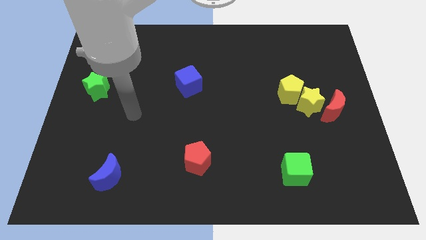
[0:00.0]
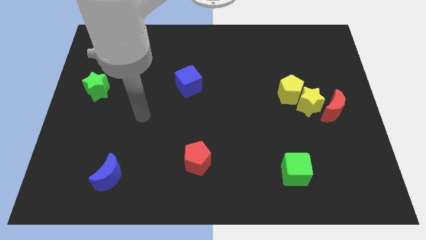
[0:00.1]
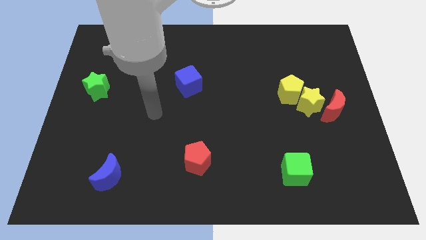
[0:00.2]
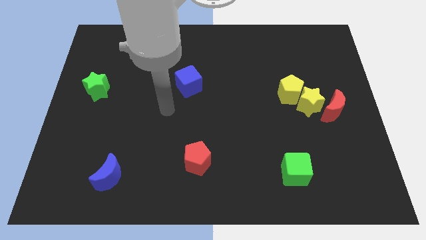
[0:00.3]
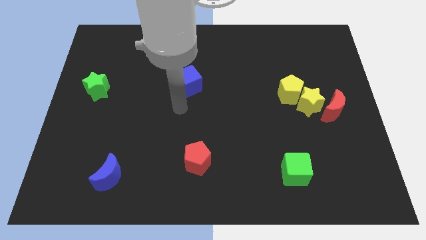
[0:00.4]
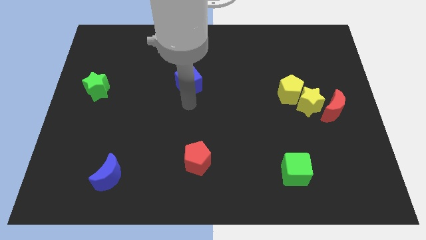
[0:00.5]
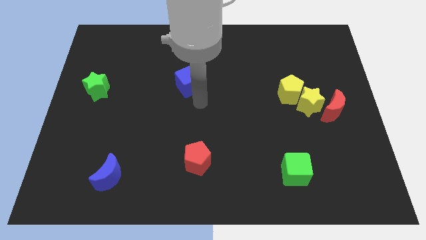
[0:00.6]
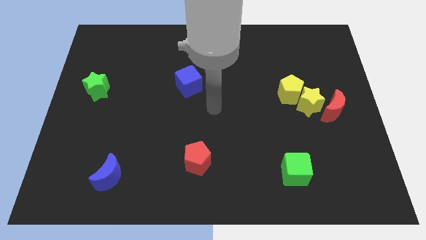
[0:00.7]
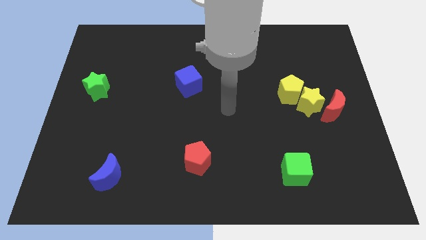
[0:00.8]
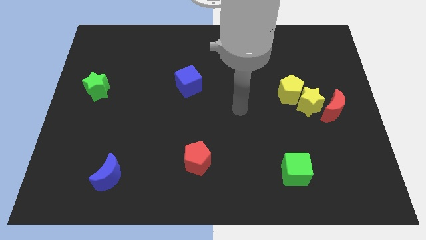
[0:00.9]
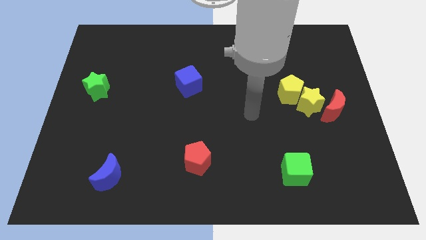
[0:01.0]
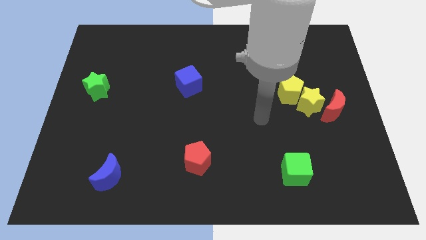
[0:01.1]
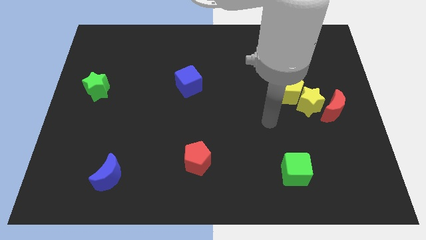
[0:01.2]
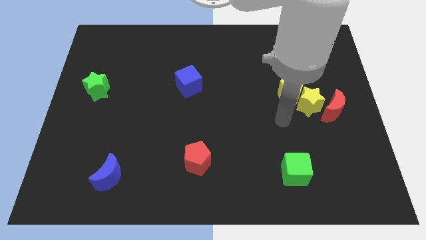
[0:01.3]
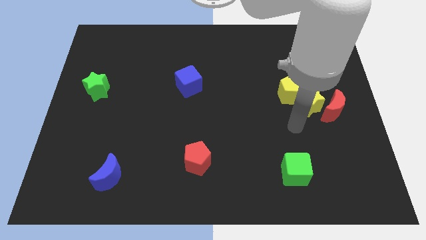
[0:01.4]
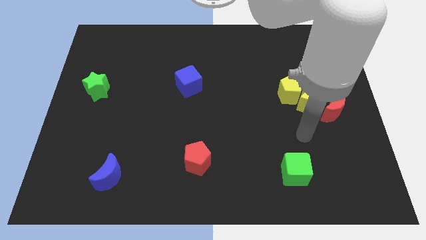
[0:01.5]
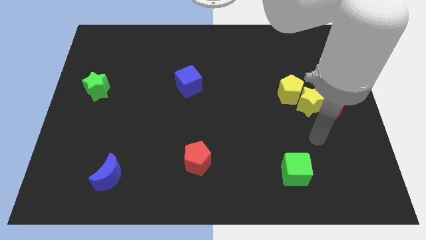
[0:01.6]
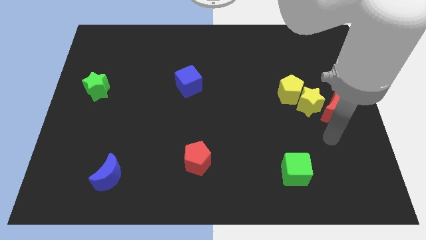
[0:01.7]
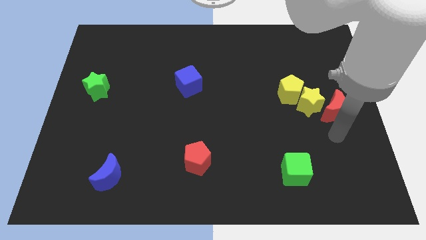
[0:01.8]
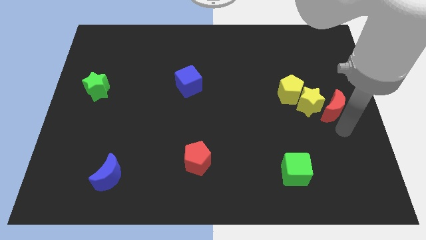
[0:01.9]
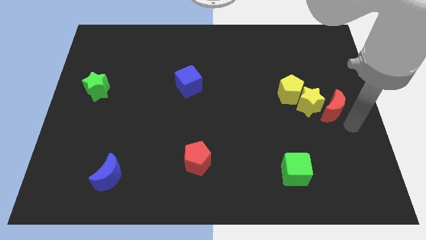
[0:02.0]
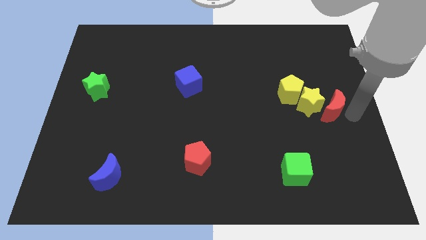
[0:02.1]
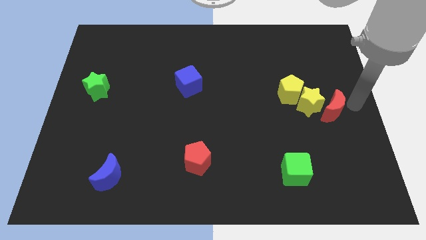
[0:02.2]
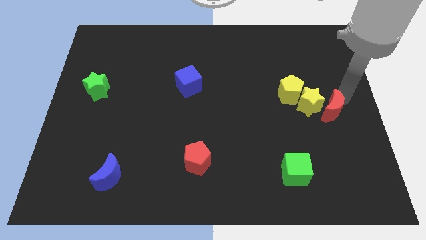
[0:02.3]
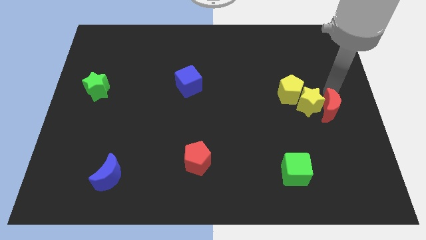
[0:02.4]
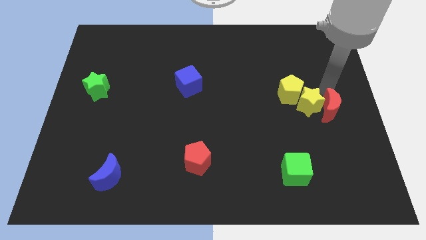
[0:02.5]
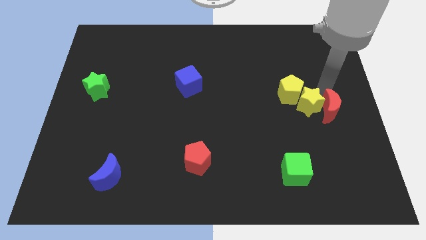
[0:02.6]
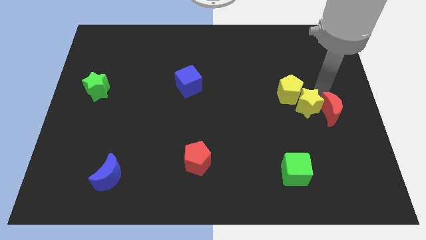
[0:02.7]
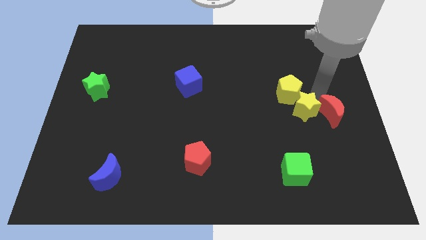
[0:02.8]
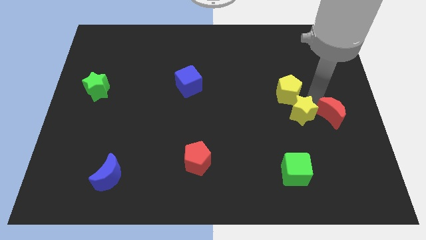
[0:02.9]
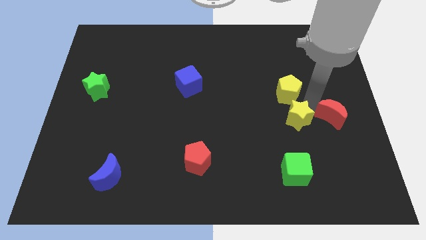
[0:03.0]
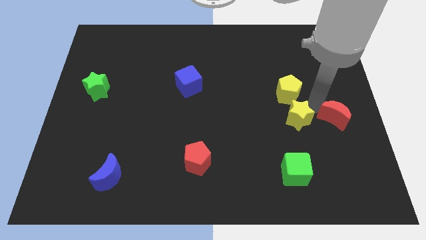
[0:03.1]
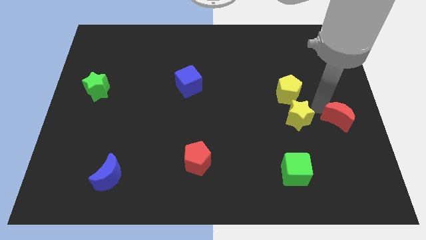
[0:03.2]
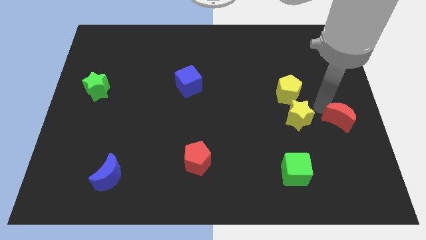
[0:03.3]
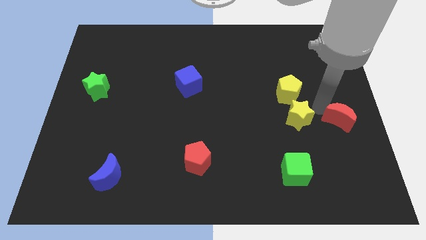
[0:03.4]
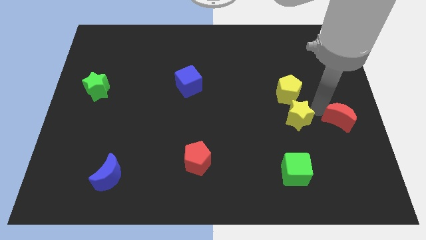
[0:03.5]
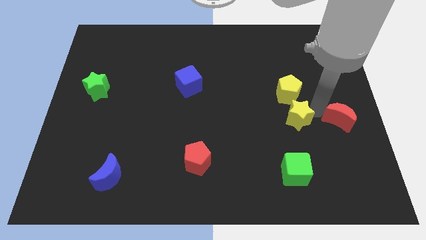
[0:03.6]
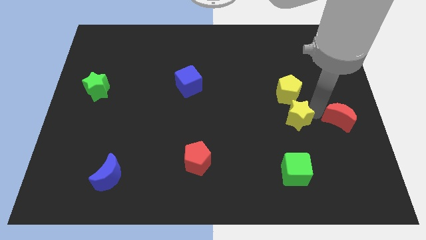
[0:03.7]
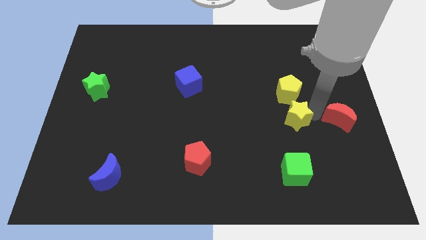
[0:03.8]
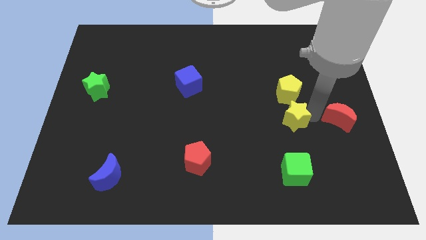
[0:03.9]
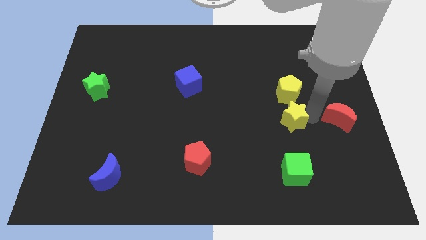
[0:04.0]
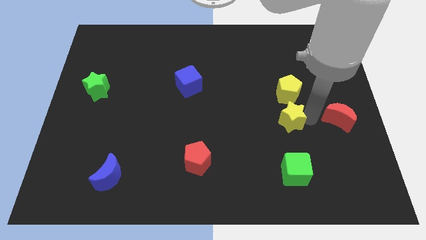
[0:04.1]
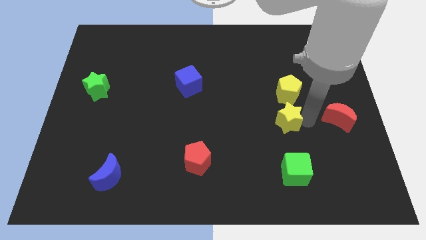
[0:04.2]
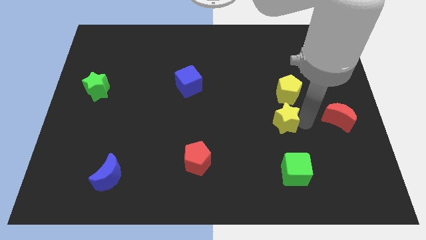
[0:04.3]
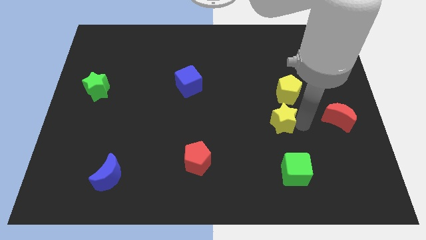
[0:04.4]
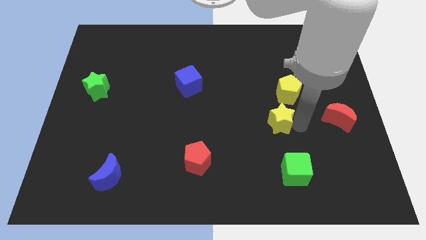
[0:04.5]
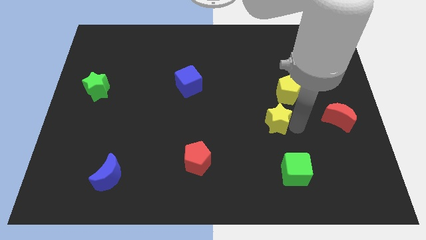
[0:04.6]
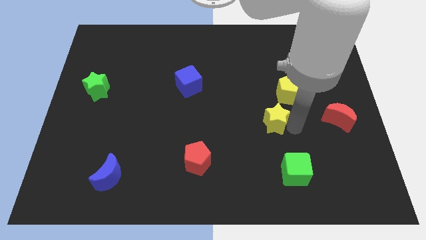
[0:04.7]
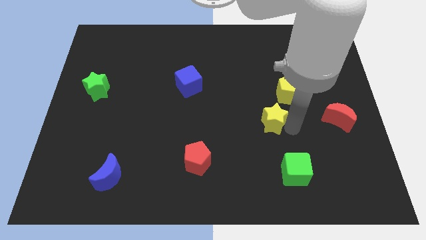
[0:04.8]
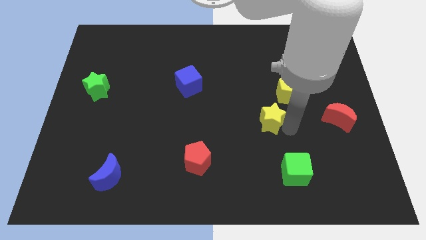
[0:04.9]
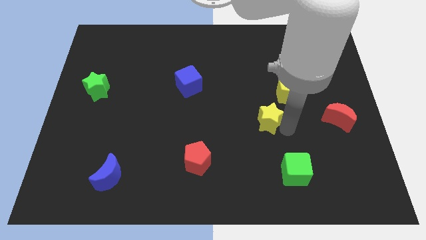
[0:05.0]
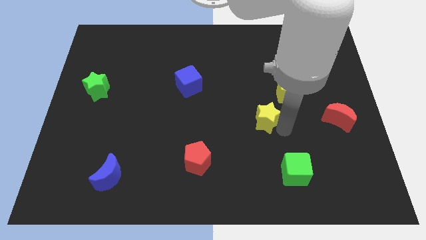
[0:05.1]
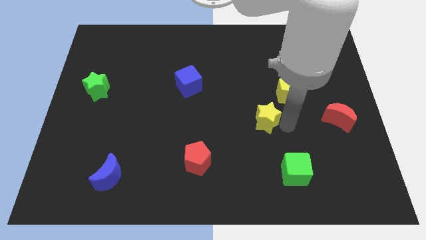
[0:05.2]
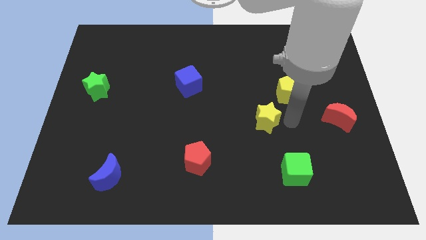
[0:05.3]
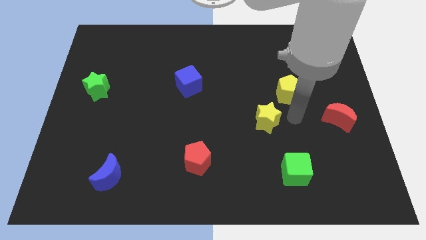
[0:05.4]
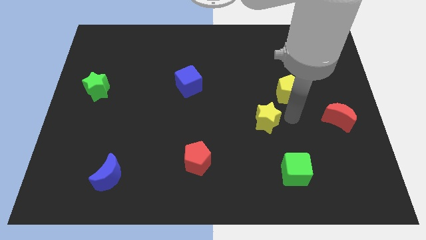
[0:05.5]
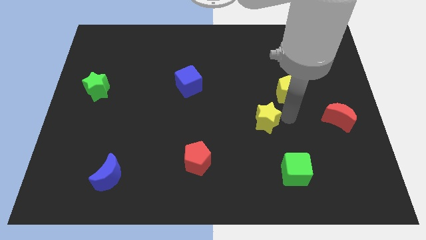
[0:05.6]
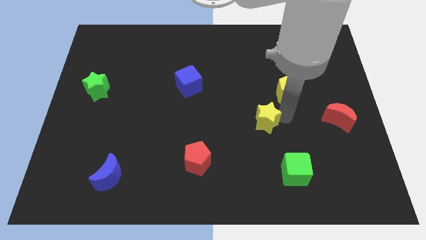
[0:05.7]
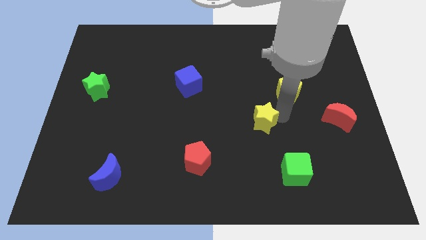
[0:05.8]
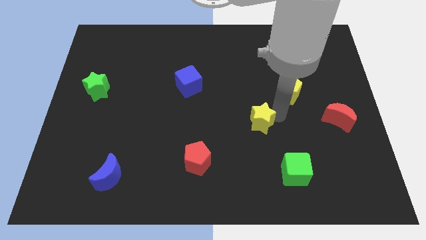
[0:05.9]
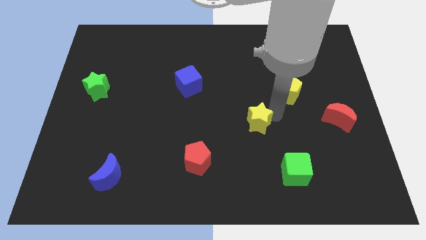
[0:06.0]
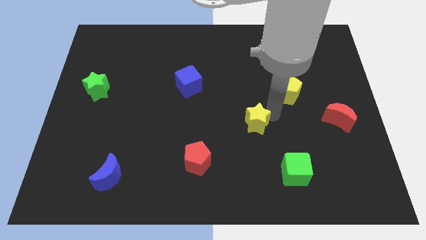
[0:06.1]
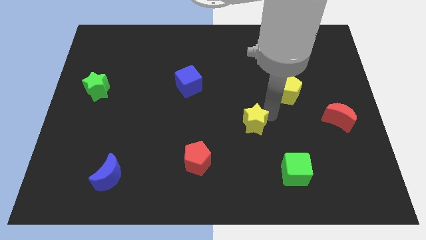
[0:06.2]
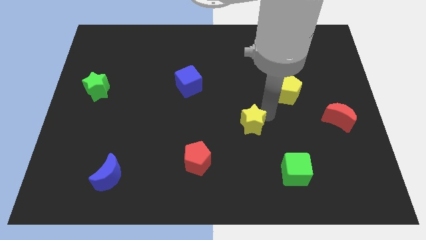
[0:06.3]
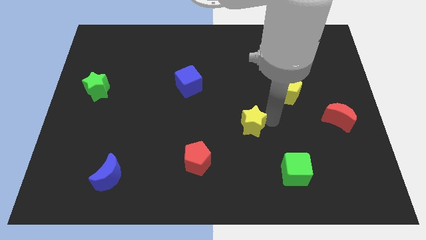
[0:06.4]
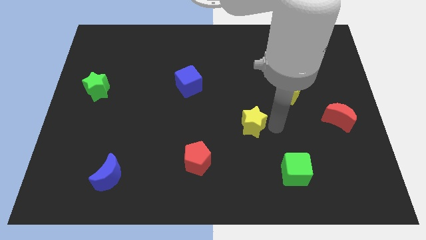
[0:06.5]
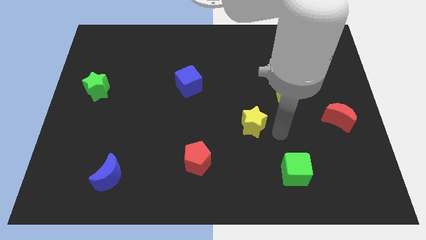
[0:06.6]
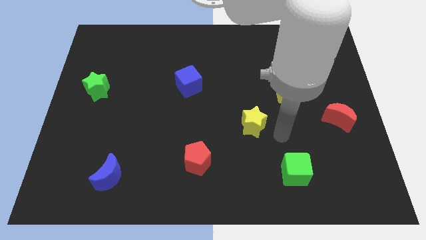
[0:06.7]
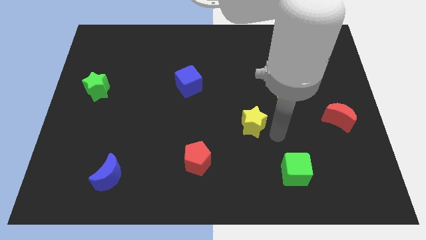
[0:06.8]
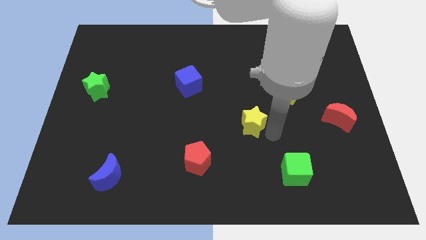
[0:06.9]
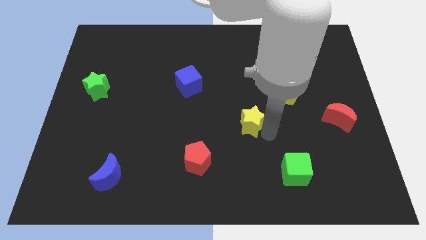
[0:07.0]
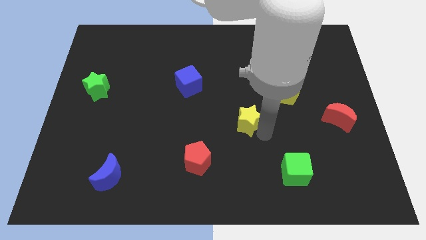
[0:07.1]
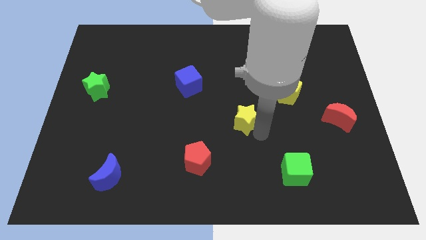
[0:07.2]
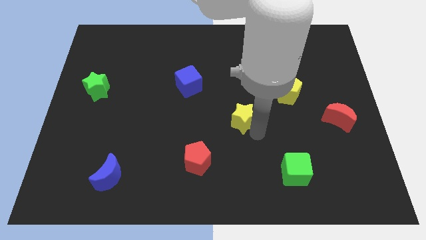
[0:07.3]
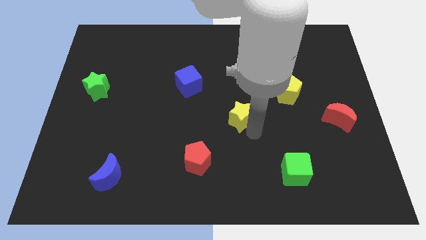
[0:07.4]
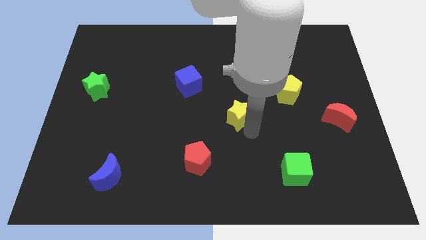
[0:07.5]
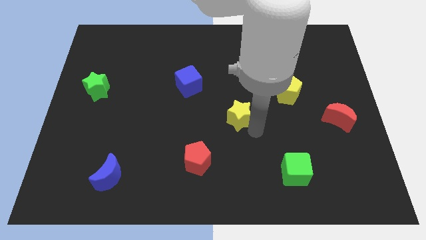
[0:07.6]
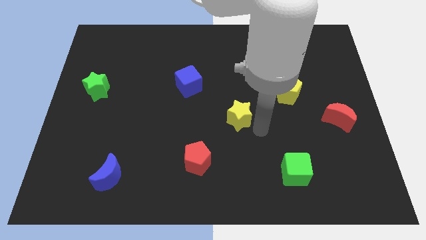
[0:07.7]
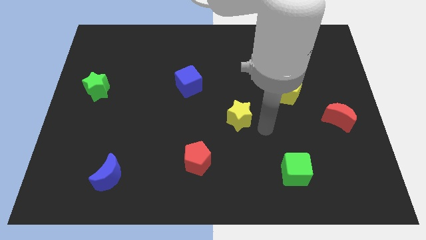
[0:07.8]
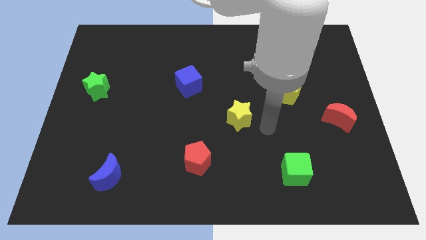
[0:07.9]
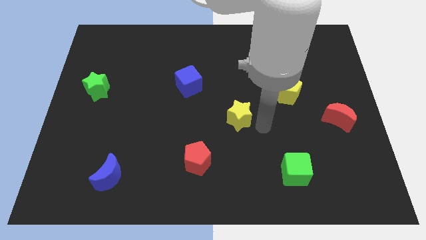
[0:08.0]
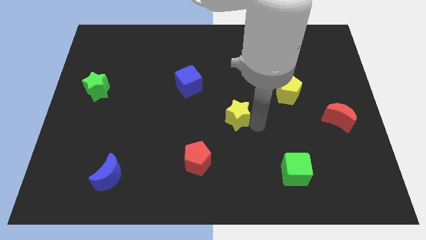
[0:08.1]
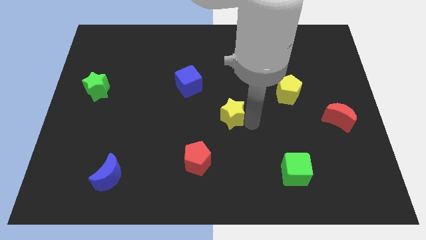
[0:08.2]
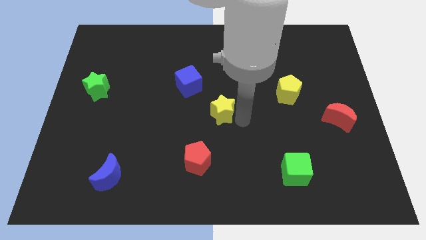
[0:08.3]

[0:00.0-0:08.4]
move the yellow star to the left
